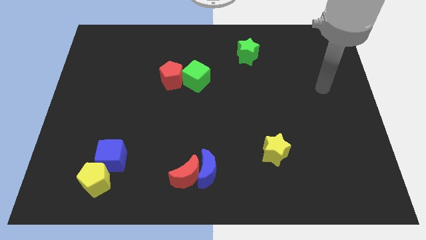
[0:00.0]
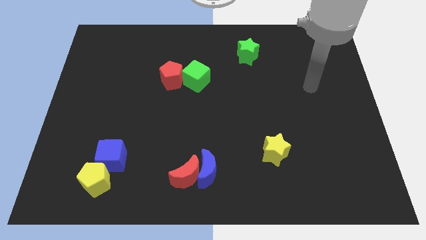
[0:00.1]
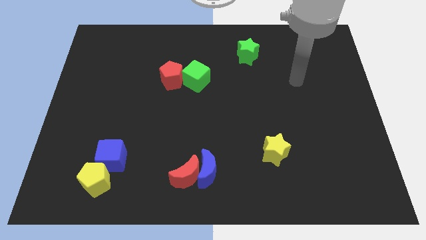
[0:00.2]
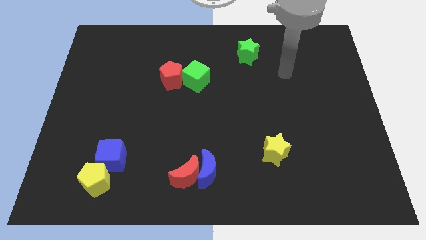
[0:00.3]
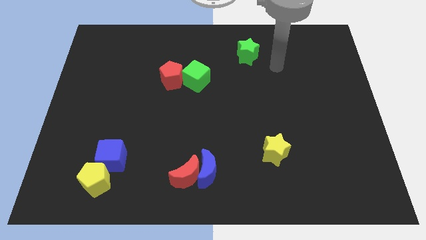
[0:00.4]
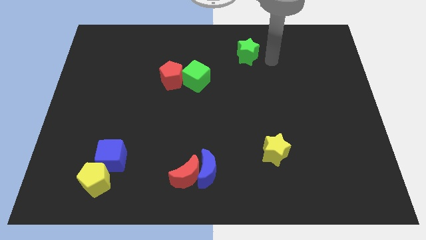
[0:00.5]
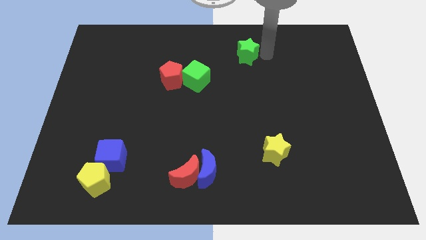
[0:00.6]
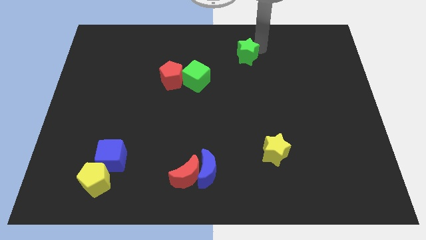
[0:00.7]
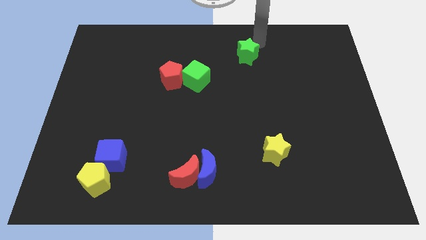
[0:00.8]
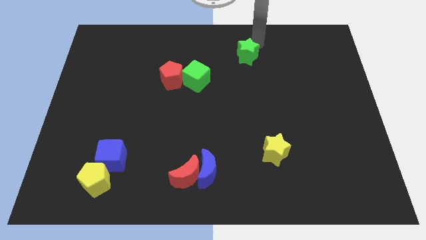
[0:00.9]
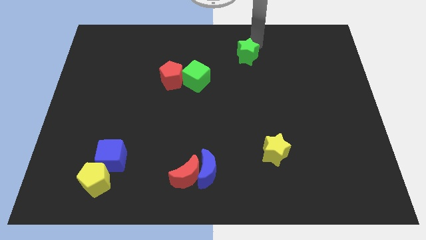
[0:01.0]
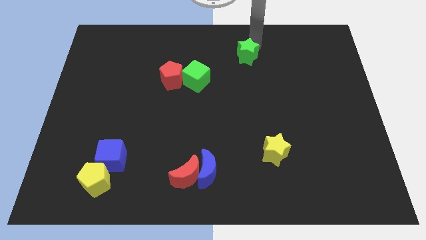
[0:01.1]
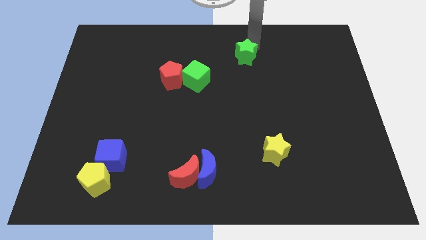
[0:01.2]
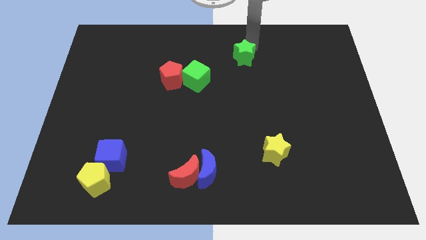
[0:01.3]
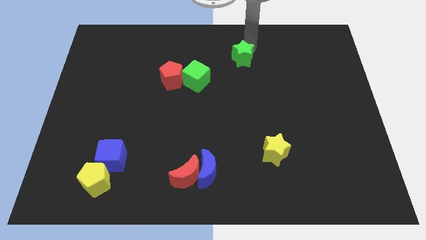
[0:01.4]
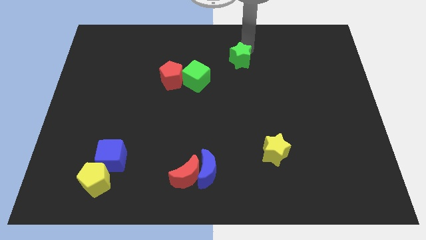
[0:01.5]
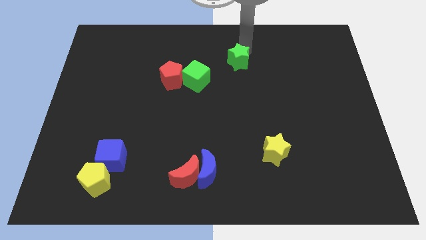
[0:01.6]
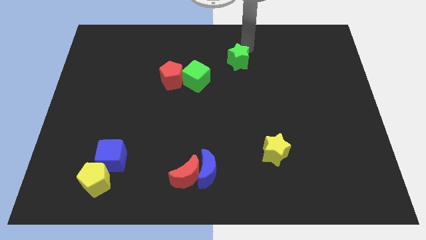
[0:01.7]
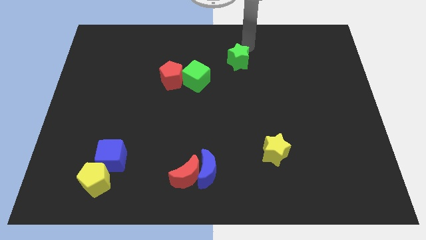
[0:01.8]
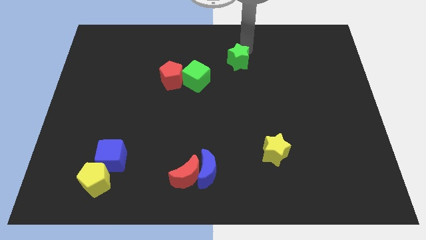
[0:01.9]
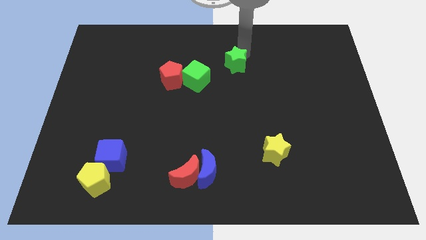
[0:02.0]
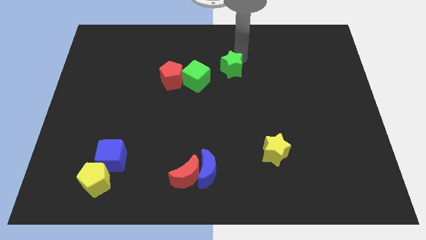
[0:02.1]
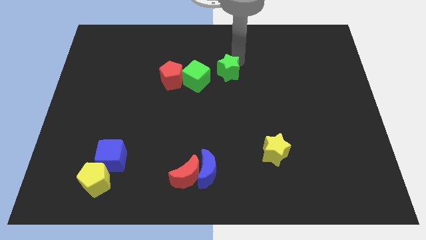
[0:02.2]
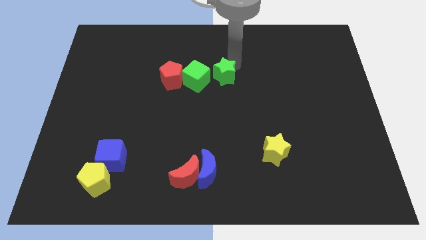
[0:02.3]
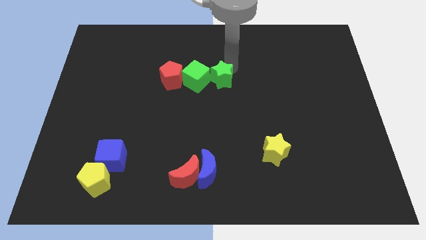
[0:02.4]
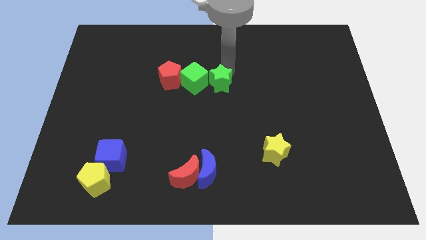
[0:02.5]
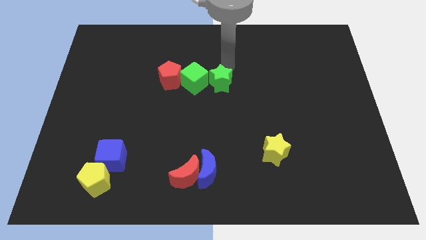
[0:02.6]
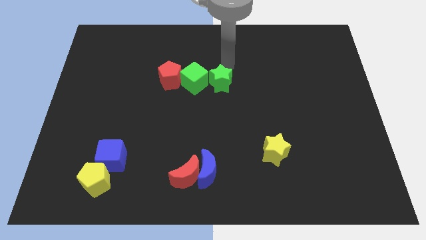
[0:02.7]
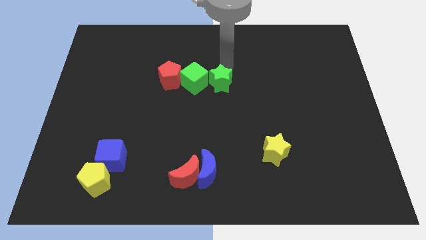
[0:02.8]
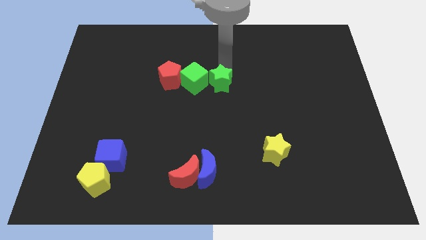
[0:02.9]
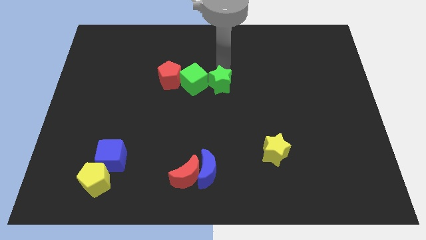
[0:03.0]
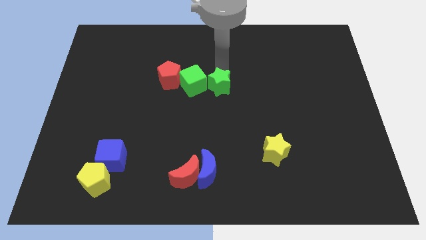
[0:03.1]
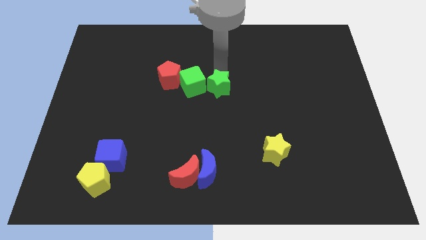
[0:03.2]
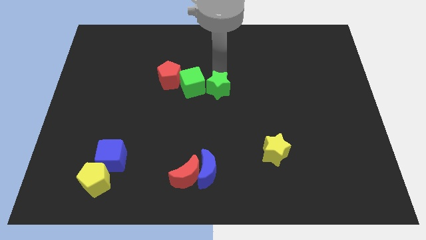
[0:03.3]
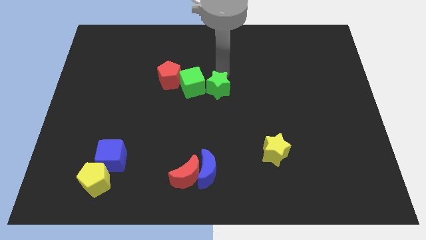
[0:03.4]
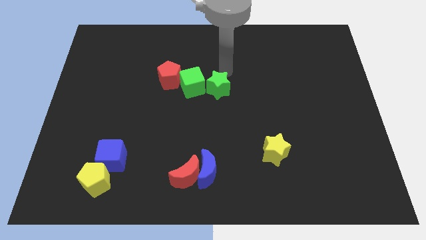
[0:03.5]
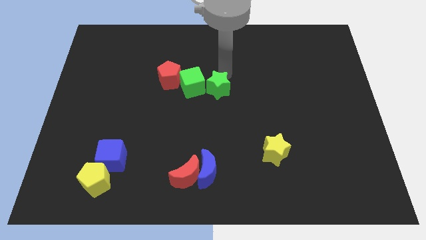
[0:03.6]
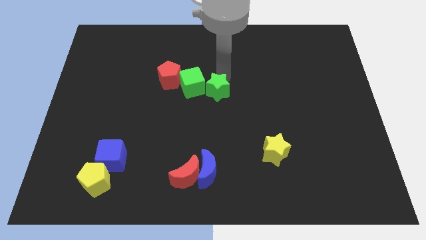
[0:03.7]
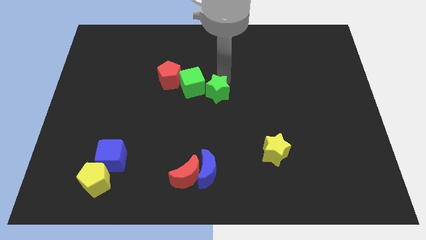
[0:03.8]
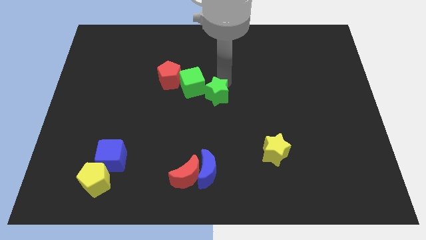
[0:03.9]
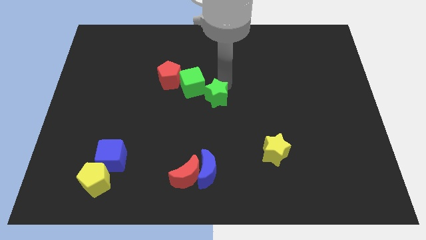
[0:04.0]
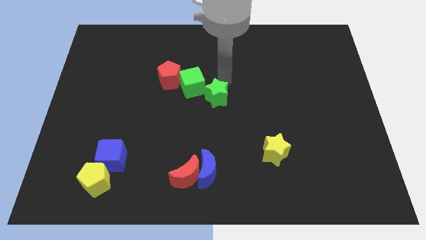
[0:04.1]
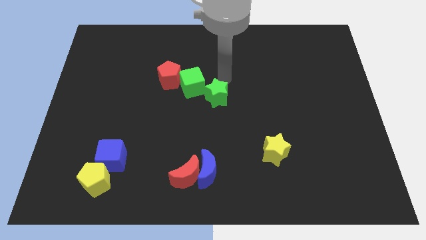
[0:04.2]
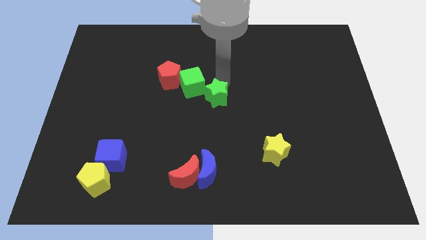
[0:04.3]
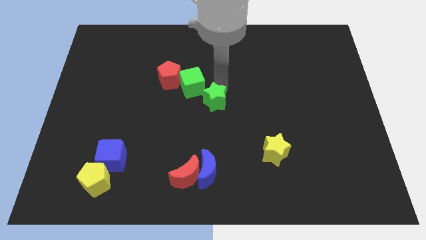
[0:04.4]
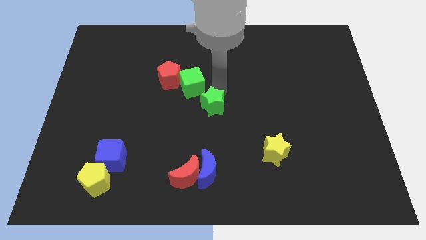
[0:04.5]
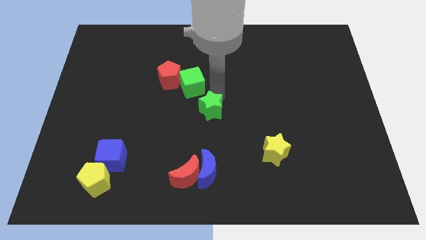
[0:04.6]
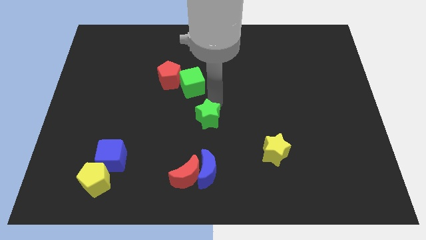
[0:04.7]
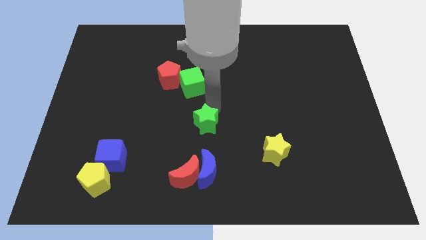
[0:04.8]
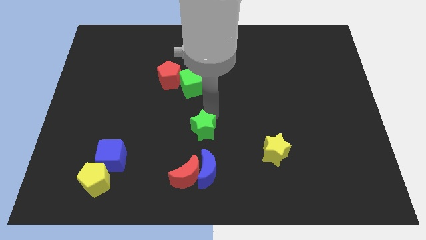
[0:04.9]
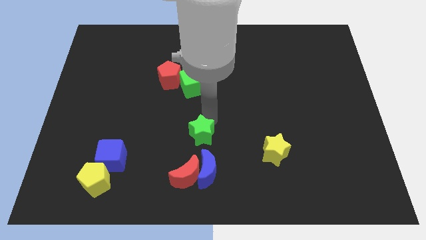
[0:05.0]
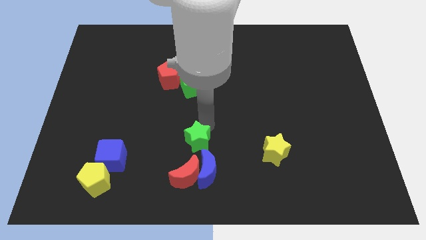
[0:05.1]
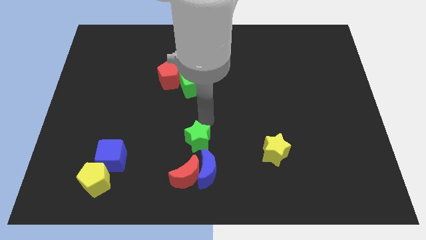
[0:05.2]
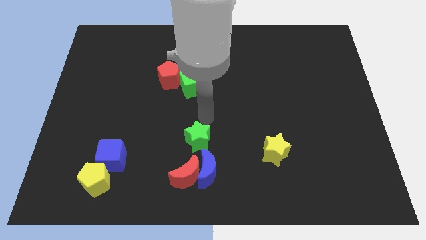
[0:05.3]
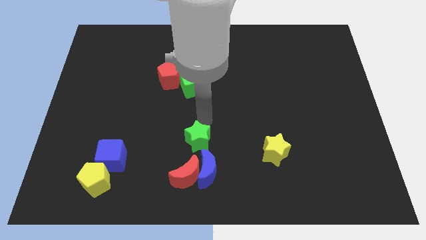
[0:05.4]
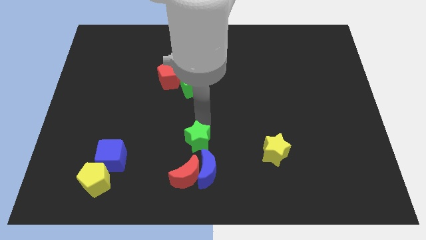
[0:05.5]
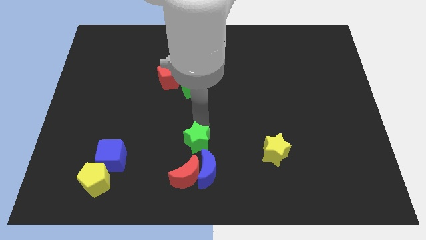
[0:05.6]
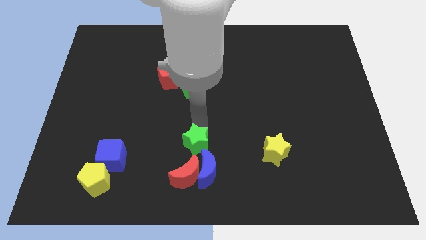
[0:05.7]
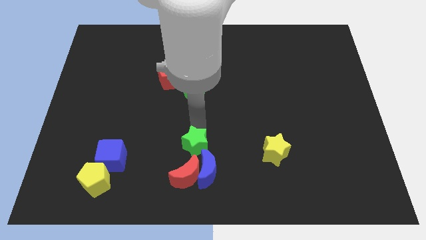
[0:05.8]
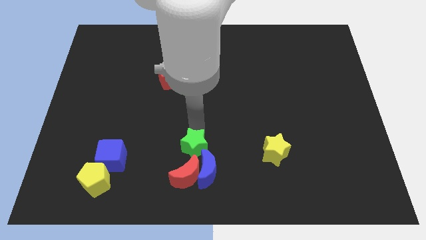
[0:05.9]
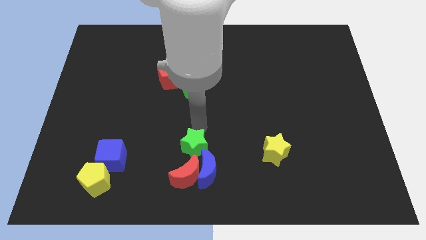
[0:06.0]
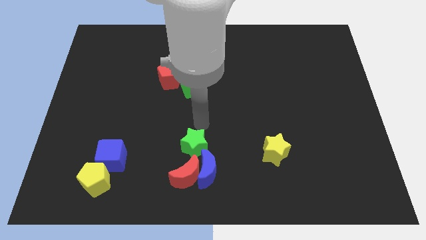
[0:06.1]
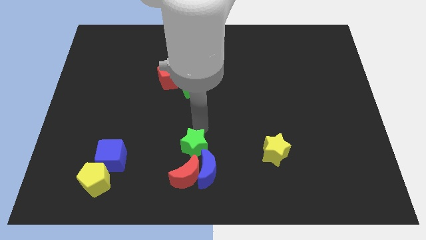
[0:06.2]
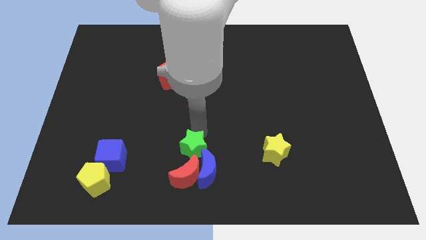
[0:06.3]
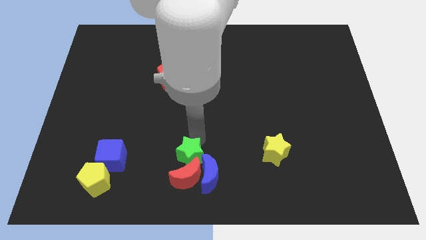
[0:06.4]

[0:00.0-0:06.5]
push the green star to the red moon

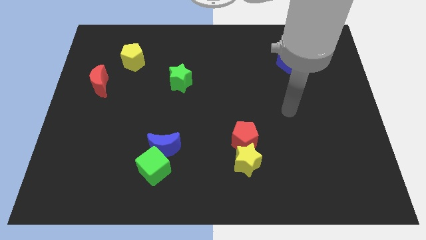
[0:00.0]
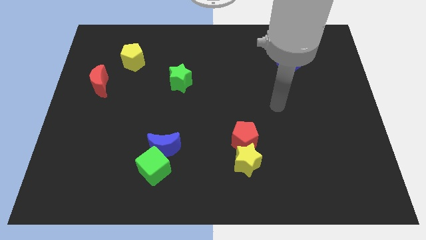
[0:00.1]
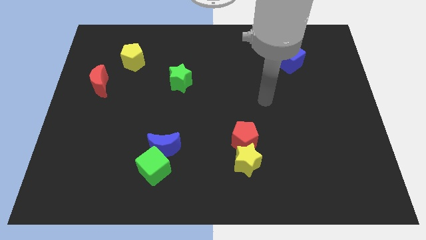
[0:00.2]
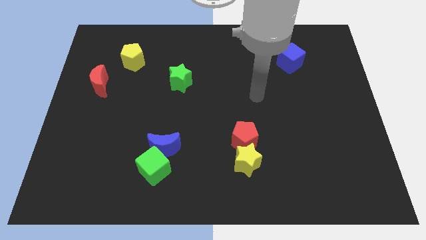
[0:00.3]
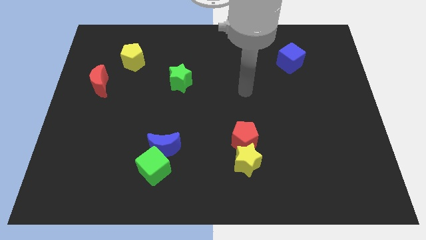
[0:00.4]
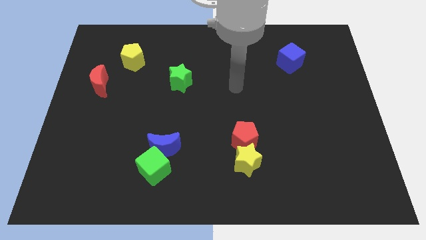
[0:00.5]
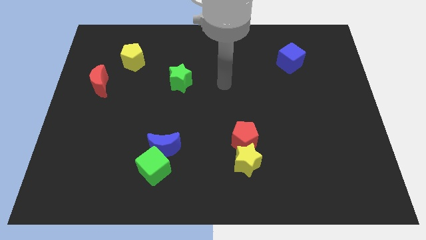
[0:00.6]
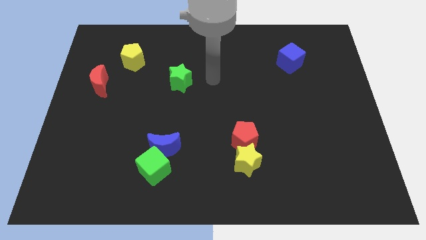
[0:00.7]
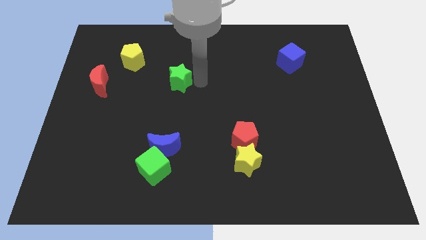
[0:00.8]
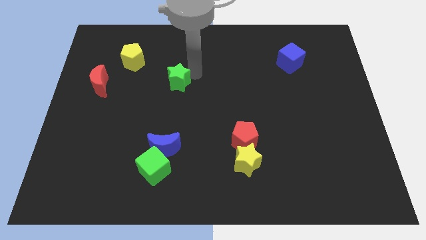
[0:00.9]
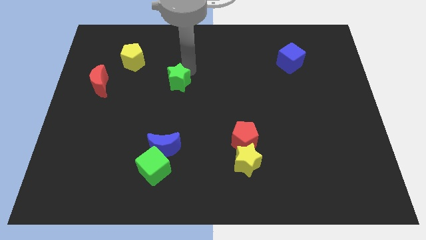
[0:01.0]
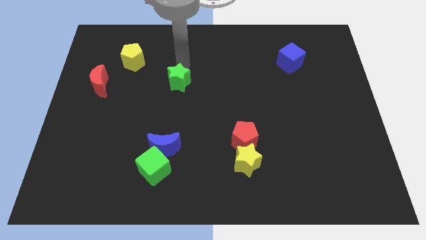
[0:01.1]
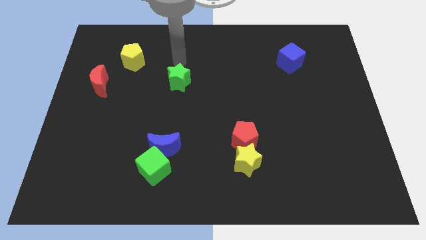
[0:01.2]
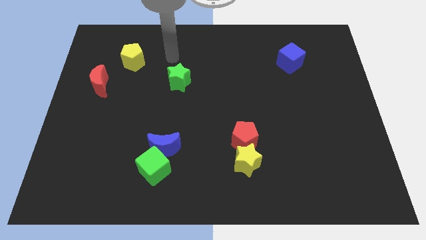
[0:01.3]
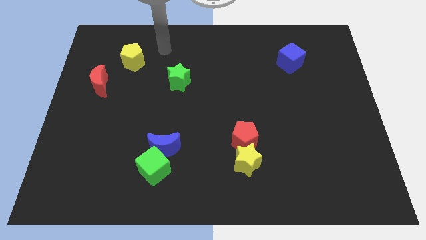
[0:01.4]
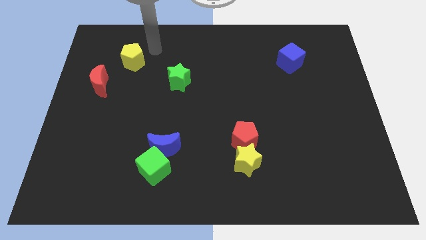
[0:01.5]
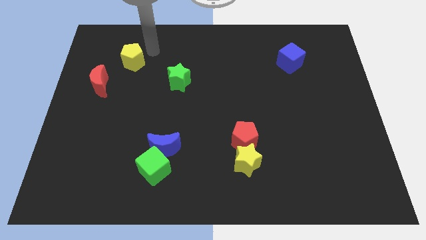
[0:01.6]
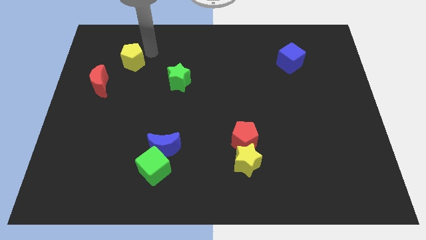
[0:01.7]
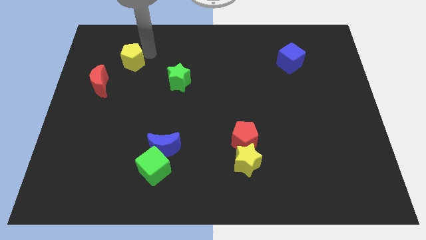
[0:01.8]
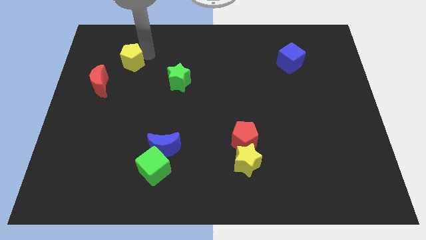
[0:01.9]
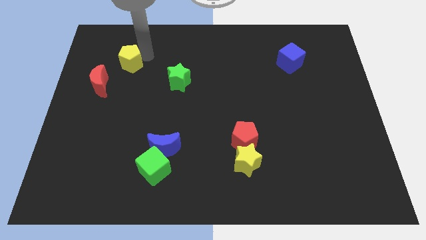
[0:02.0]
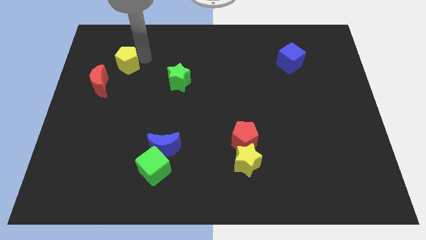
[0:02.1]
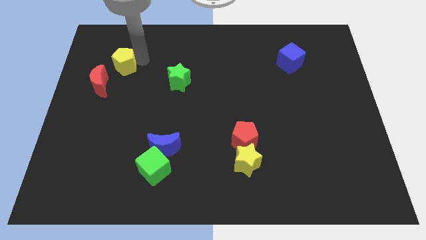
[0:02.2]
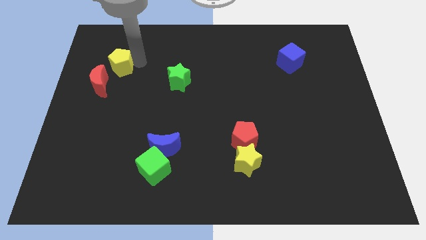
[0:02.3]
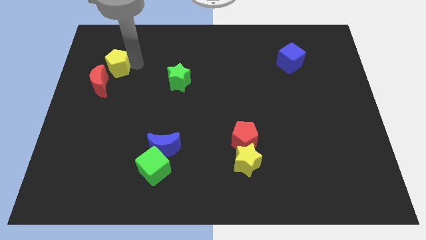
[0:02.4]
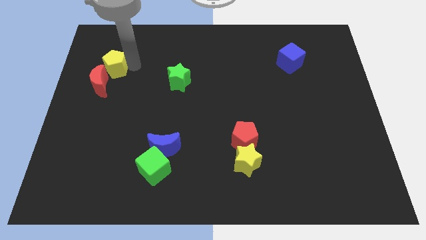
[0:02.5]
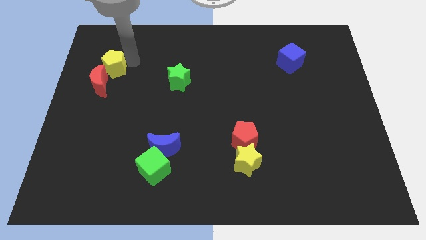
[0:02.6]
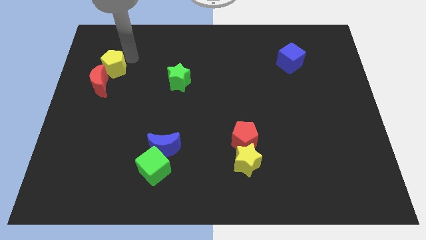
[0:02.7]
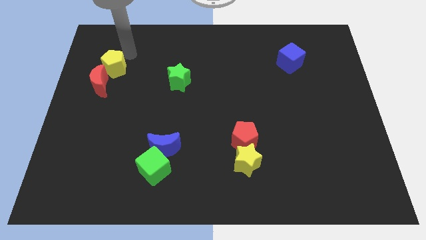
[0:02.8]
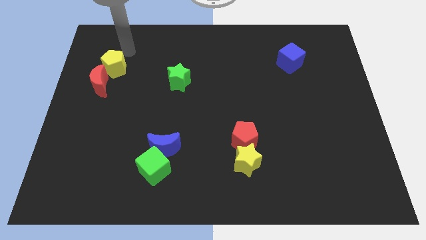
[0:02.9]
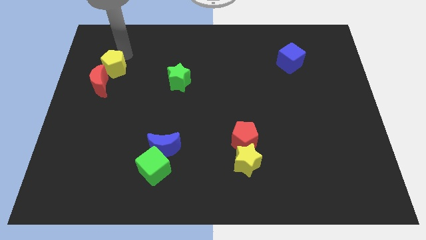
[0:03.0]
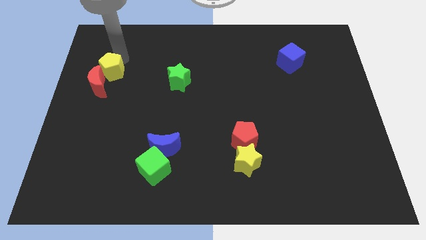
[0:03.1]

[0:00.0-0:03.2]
slide the yellow pentagon next to the red moon
